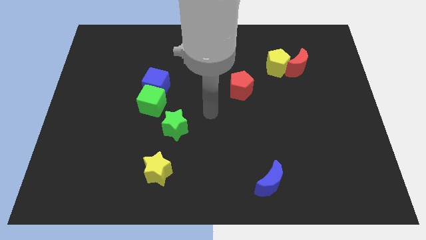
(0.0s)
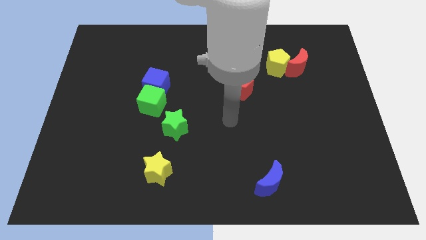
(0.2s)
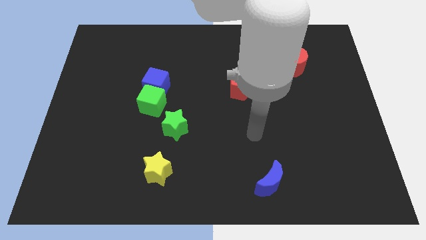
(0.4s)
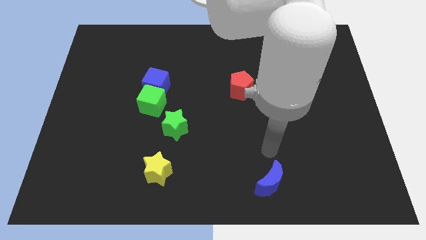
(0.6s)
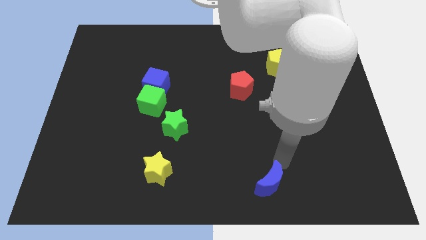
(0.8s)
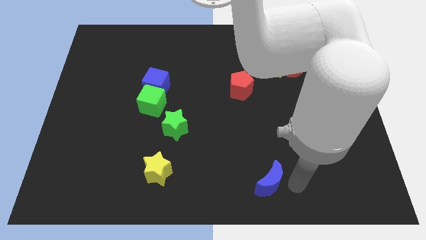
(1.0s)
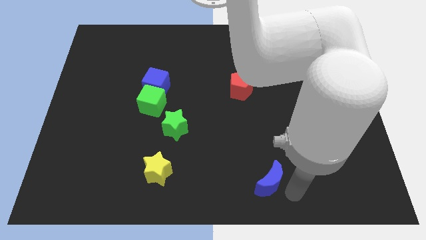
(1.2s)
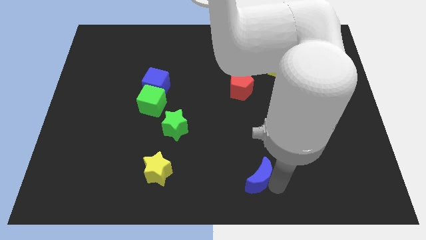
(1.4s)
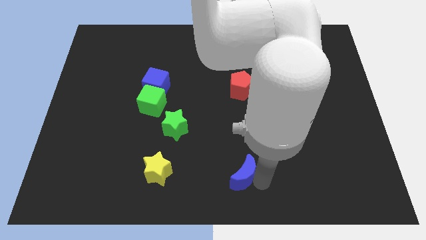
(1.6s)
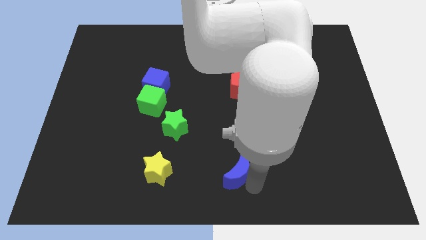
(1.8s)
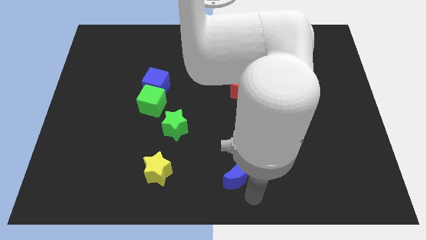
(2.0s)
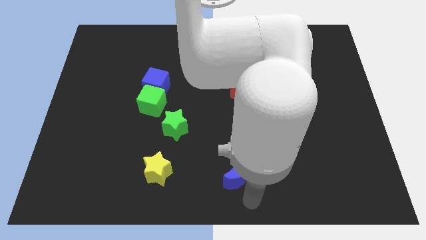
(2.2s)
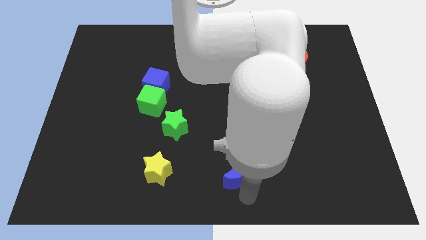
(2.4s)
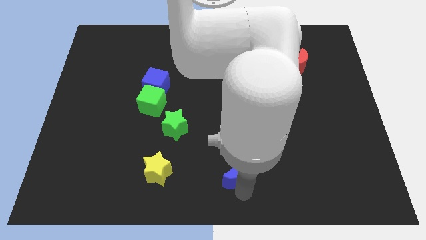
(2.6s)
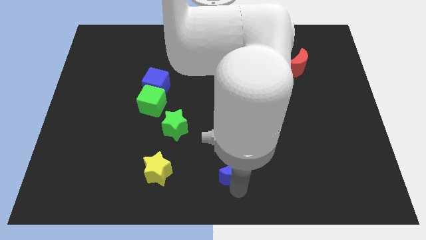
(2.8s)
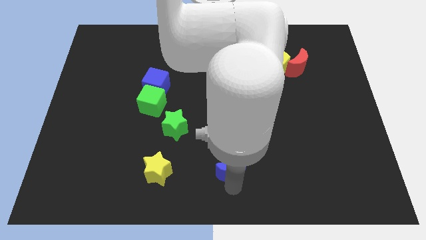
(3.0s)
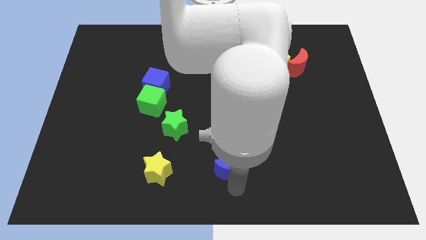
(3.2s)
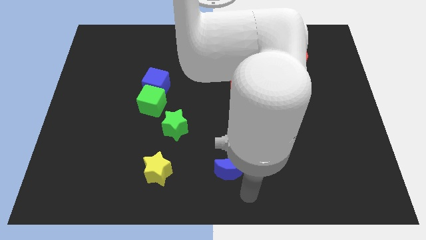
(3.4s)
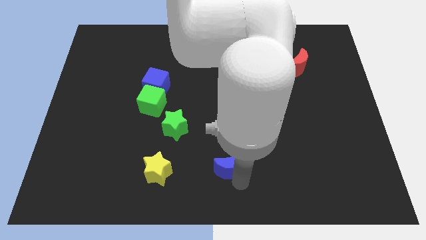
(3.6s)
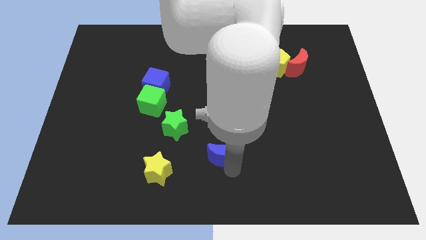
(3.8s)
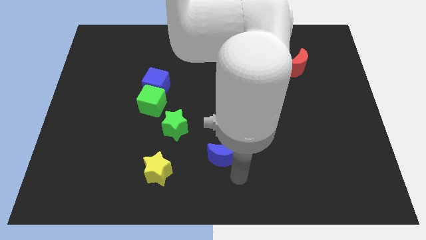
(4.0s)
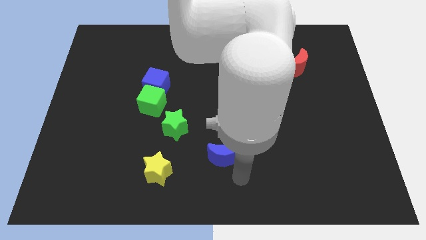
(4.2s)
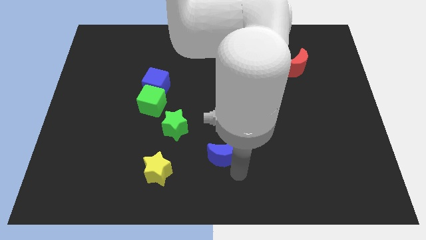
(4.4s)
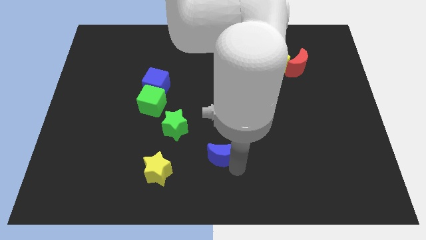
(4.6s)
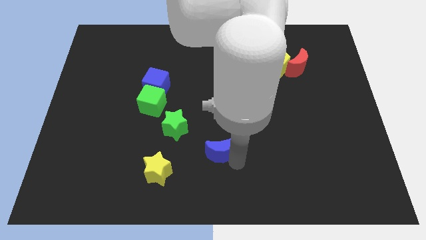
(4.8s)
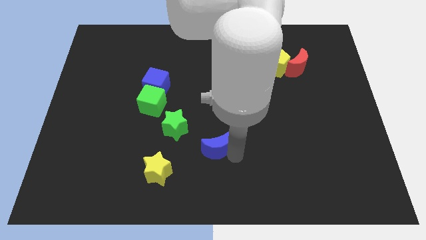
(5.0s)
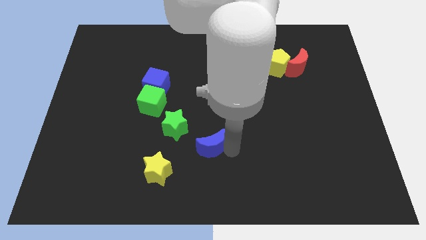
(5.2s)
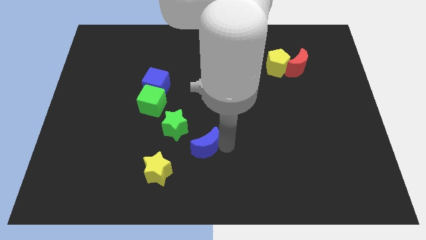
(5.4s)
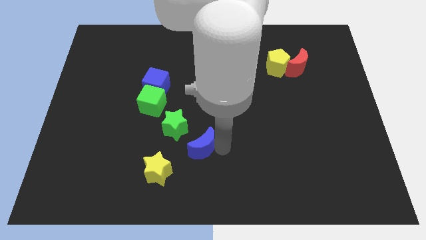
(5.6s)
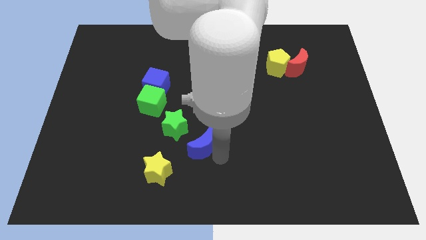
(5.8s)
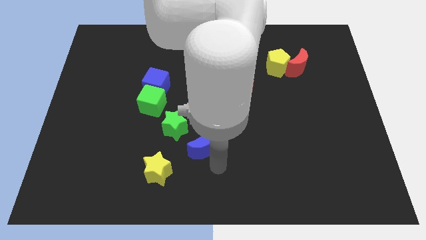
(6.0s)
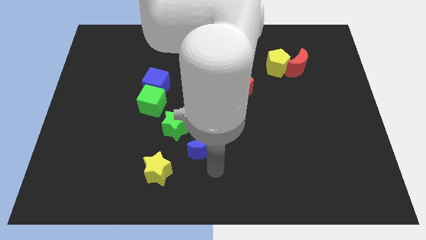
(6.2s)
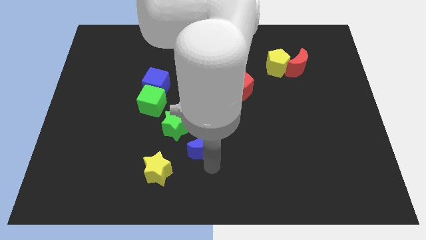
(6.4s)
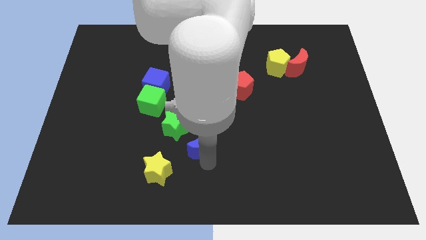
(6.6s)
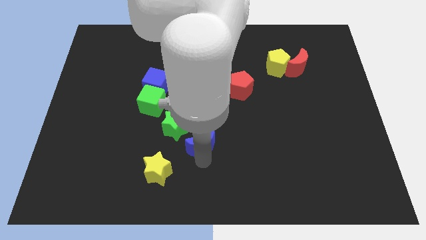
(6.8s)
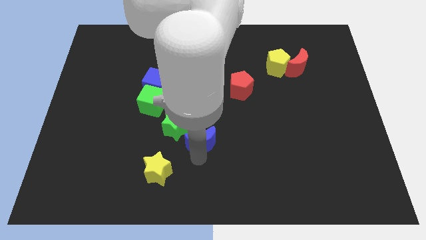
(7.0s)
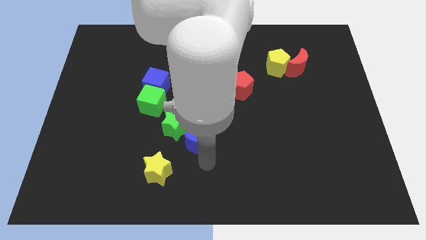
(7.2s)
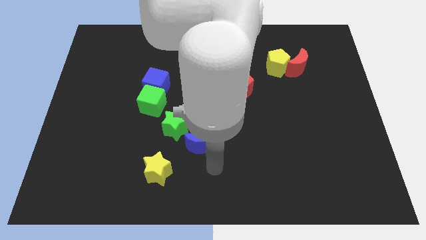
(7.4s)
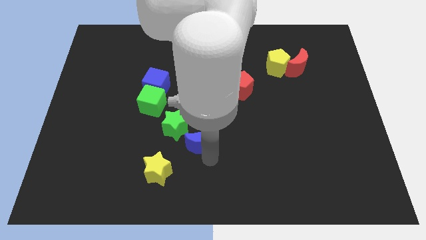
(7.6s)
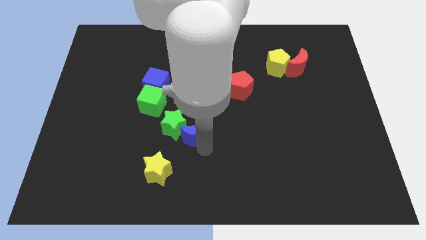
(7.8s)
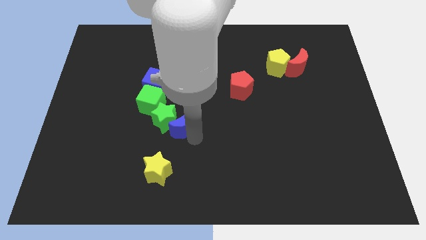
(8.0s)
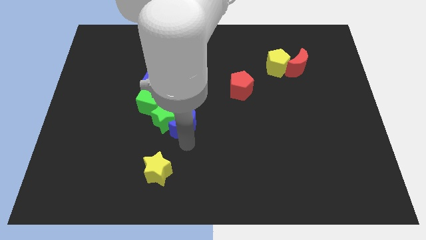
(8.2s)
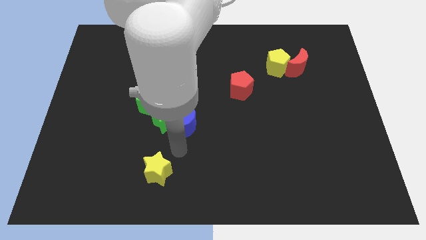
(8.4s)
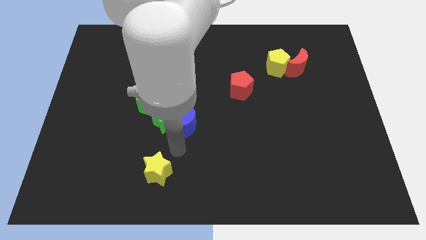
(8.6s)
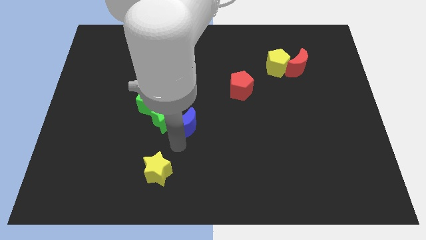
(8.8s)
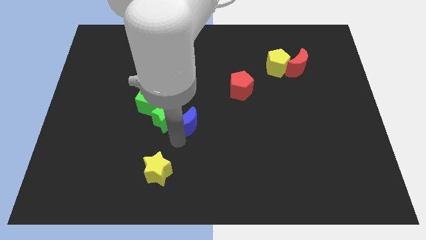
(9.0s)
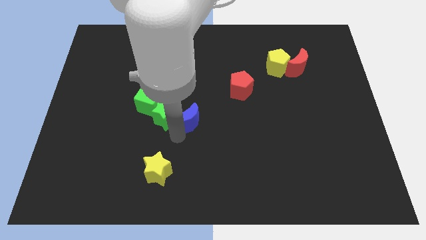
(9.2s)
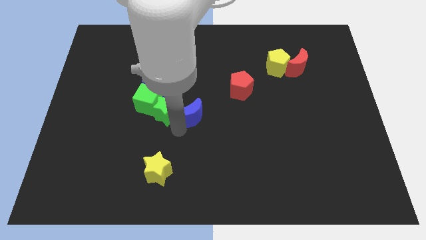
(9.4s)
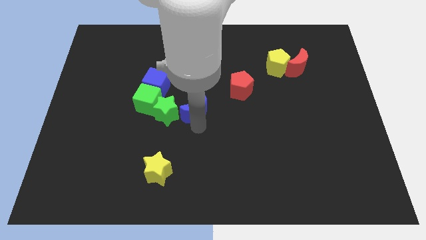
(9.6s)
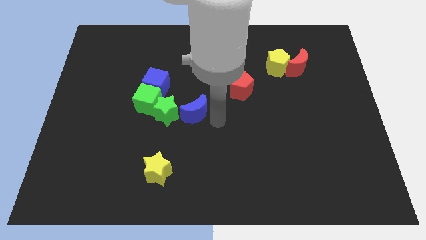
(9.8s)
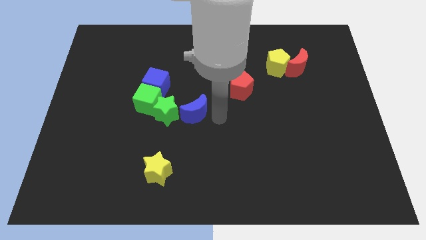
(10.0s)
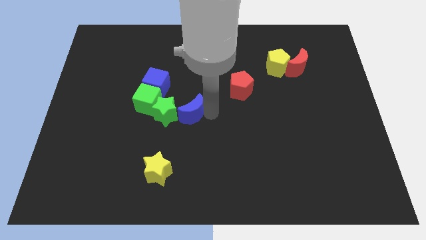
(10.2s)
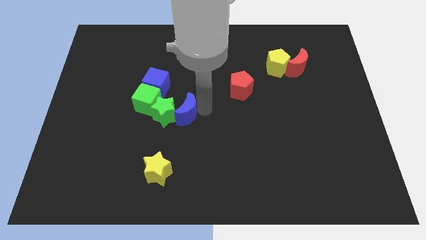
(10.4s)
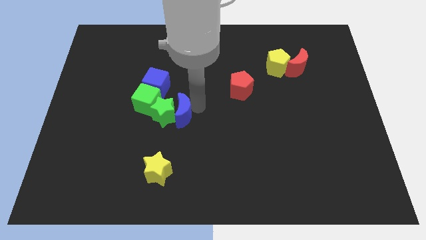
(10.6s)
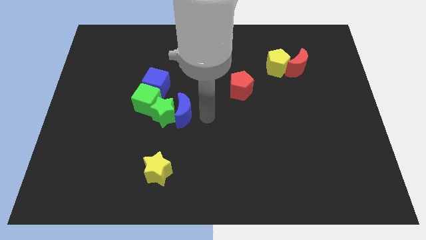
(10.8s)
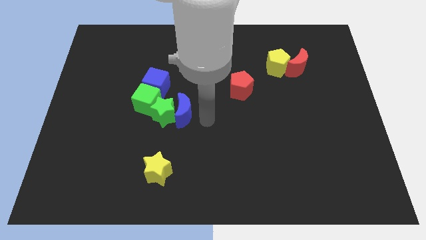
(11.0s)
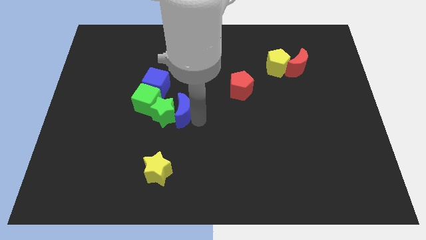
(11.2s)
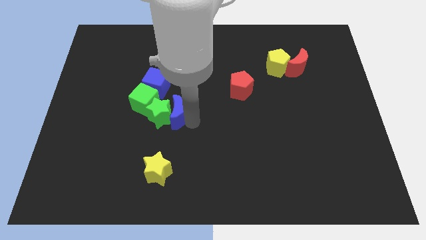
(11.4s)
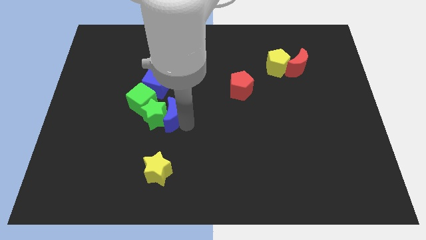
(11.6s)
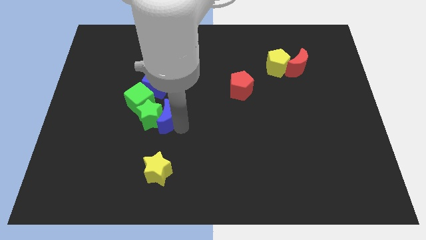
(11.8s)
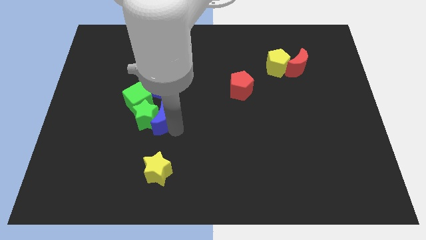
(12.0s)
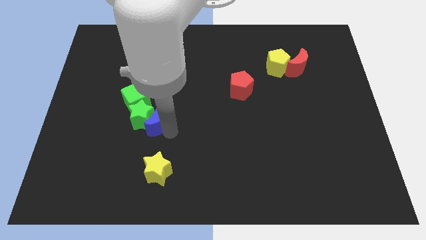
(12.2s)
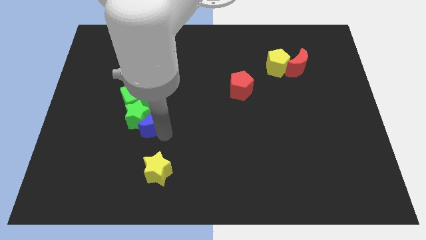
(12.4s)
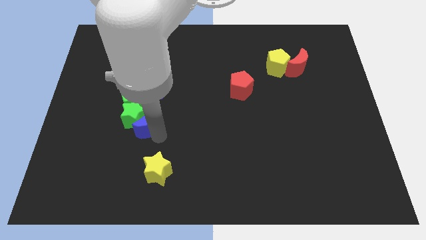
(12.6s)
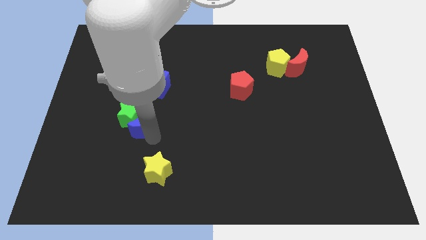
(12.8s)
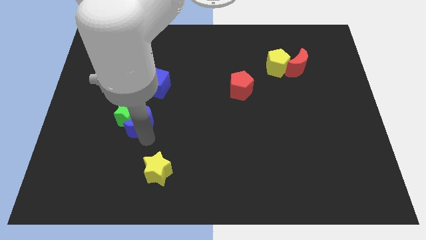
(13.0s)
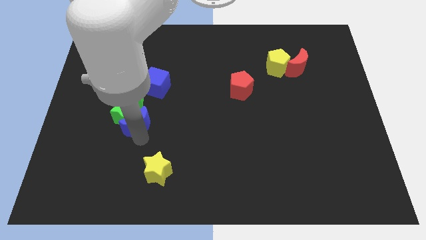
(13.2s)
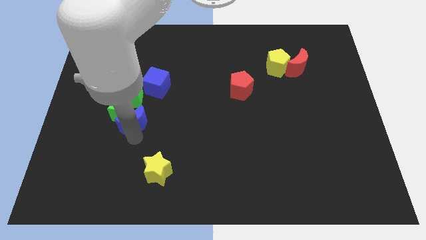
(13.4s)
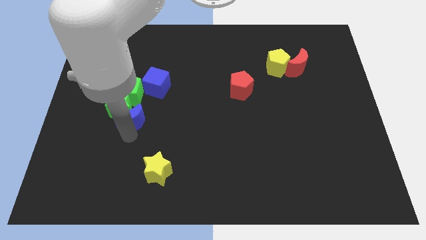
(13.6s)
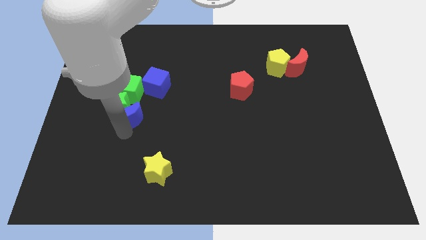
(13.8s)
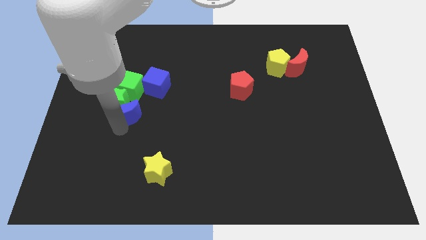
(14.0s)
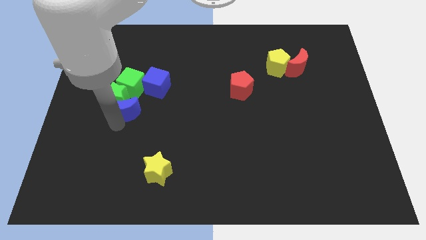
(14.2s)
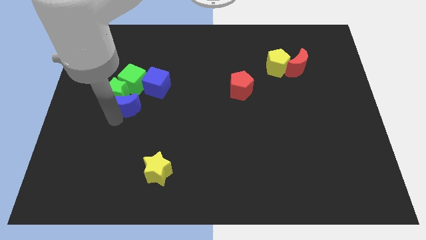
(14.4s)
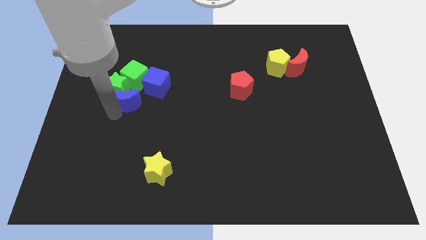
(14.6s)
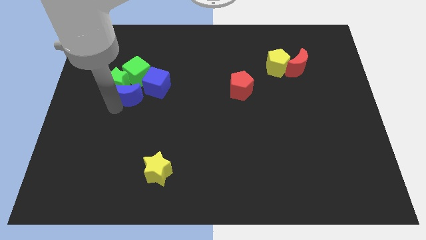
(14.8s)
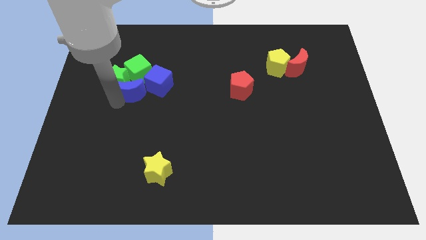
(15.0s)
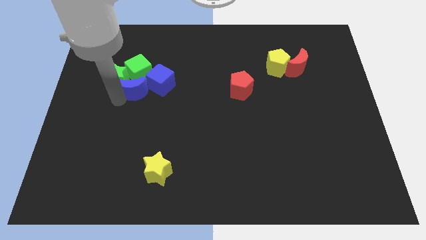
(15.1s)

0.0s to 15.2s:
push the blue moon towards the green cube
